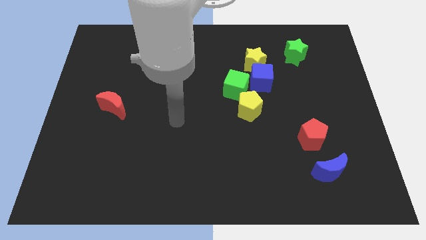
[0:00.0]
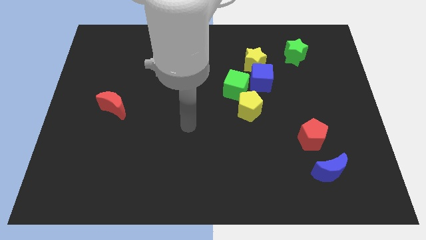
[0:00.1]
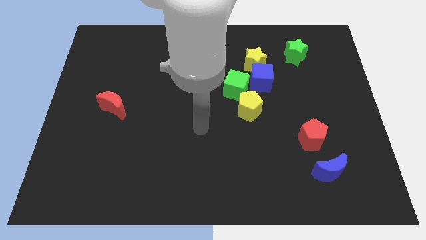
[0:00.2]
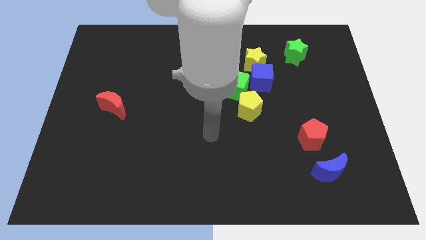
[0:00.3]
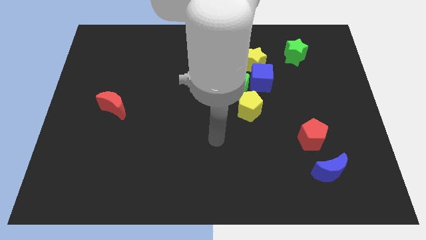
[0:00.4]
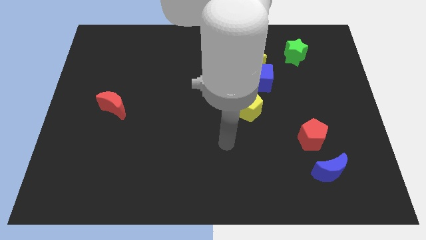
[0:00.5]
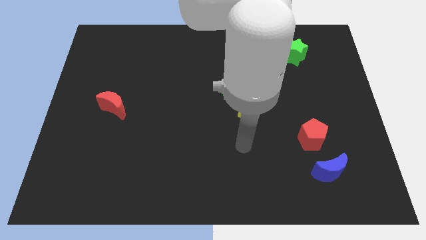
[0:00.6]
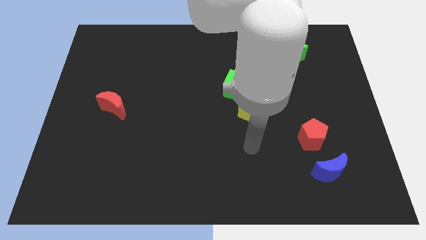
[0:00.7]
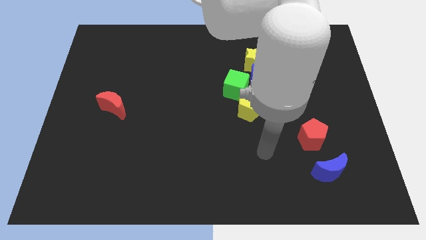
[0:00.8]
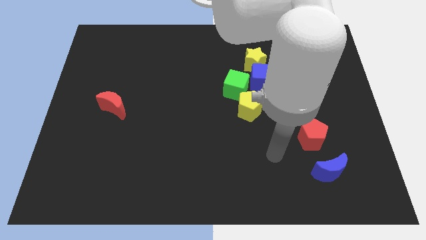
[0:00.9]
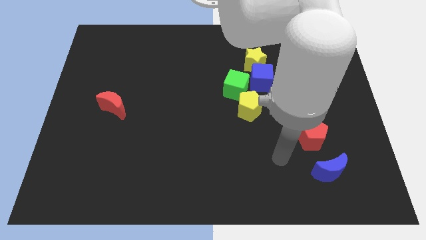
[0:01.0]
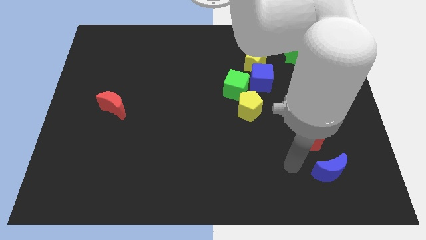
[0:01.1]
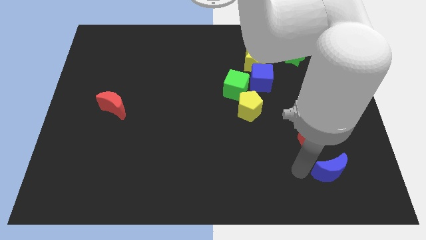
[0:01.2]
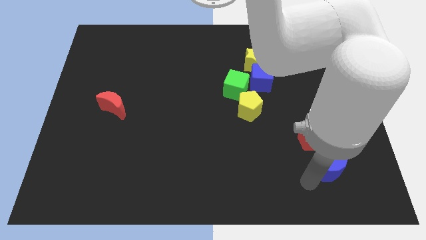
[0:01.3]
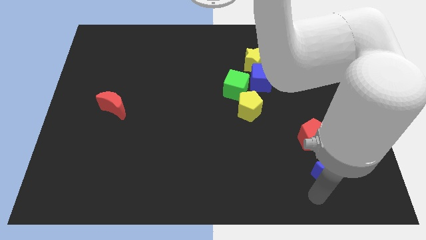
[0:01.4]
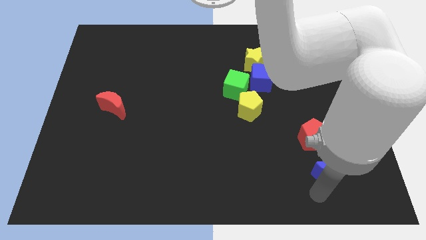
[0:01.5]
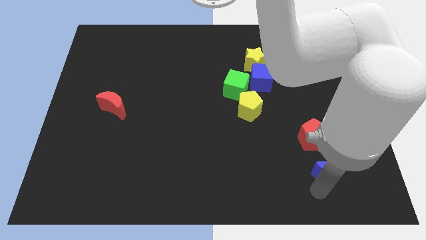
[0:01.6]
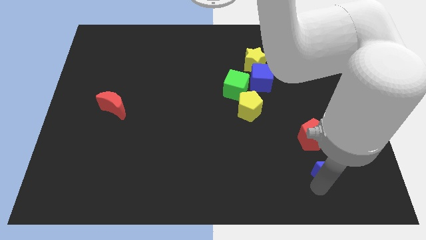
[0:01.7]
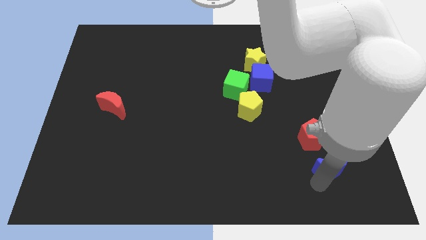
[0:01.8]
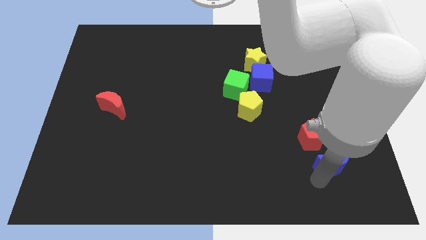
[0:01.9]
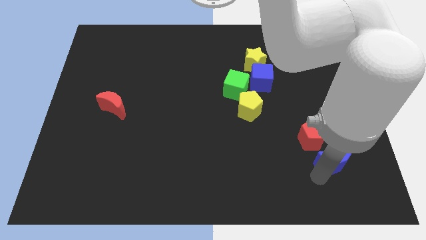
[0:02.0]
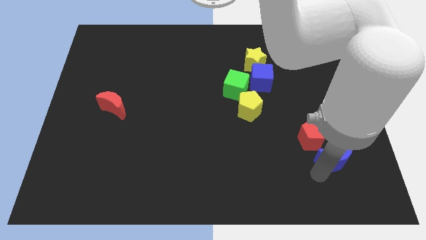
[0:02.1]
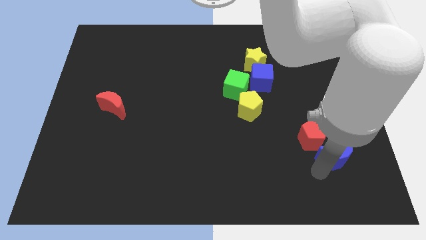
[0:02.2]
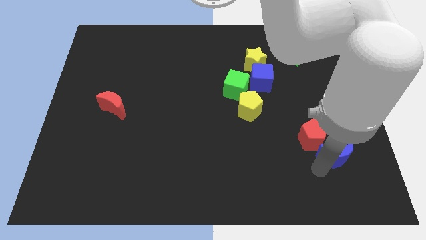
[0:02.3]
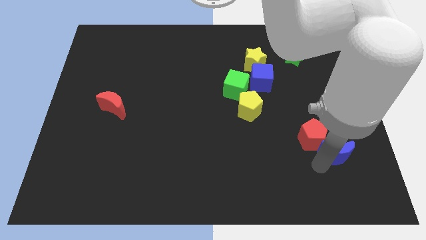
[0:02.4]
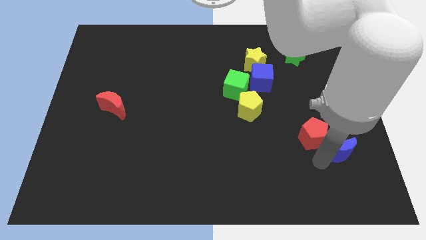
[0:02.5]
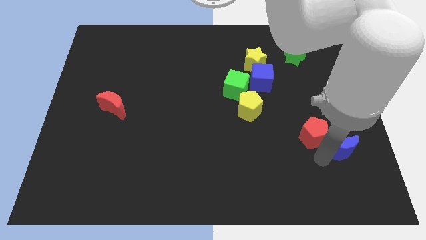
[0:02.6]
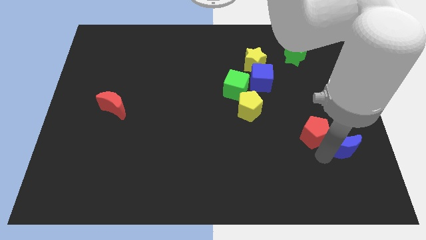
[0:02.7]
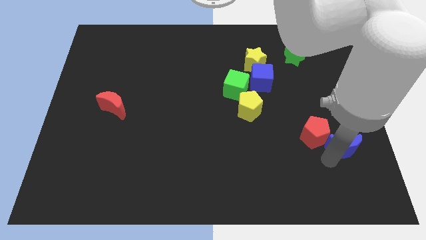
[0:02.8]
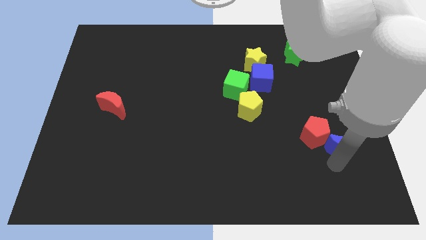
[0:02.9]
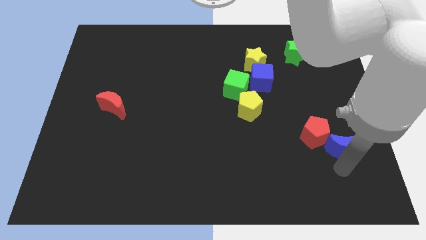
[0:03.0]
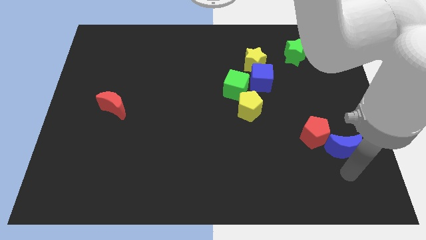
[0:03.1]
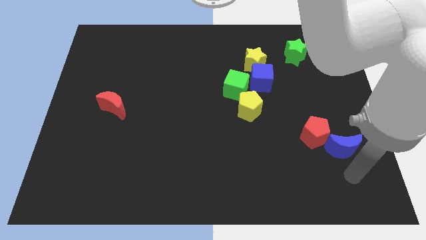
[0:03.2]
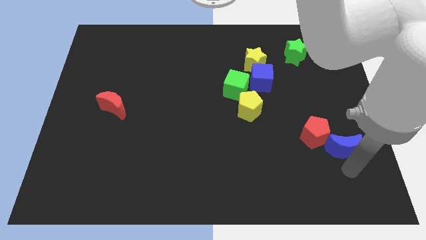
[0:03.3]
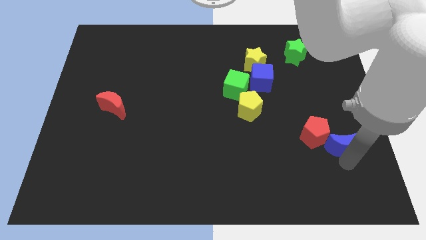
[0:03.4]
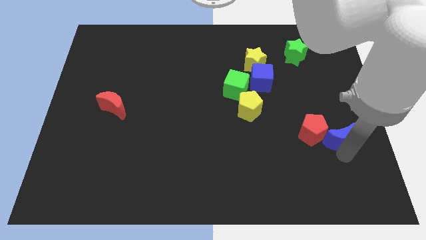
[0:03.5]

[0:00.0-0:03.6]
slightly slide the blue moon upwards

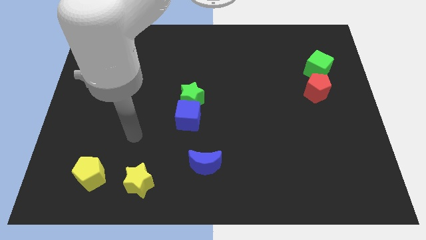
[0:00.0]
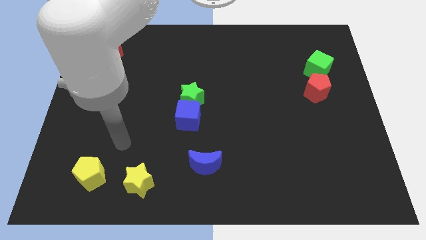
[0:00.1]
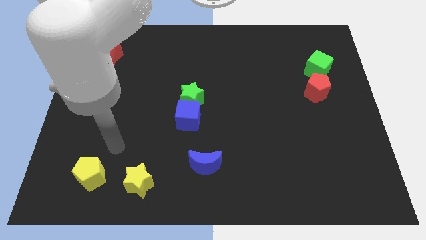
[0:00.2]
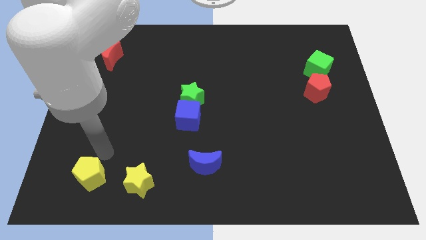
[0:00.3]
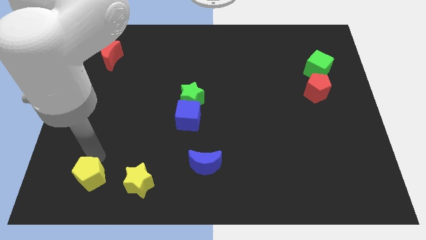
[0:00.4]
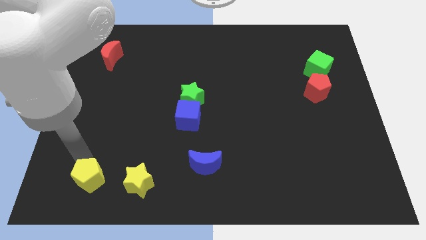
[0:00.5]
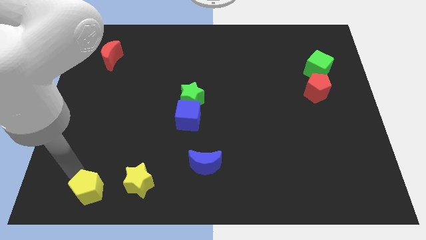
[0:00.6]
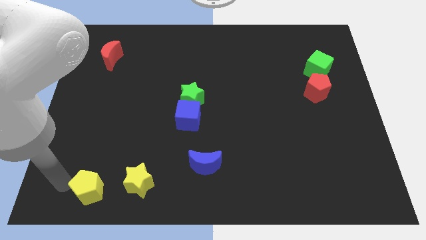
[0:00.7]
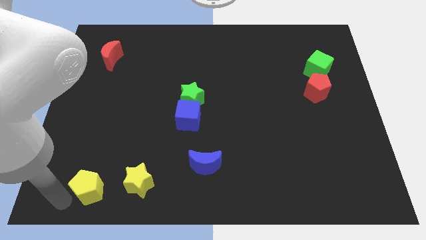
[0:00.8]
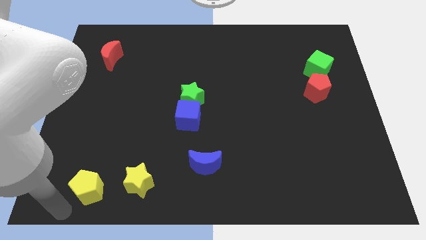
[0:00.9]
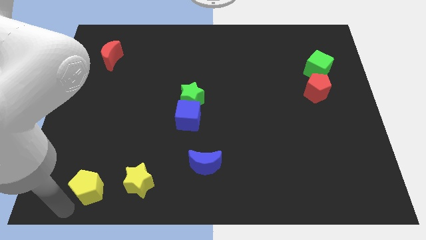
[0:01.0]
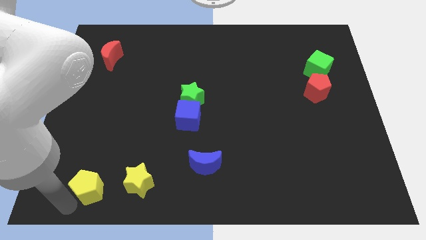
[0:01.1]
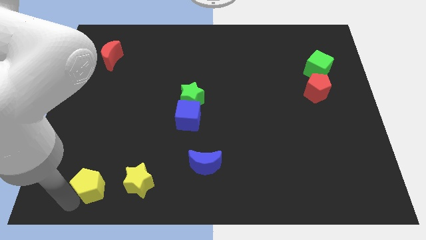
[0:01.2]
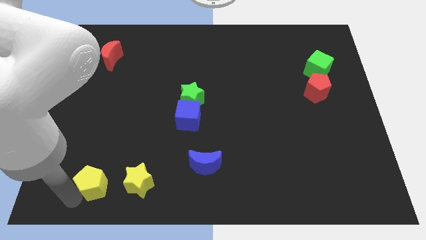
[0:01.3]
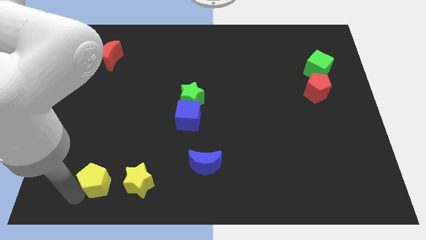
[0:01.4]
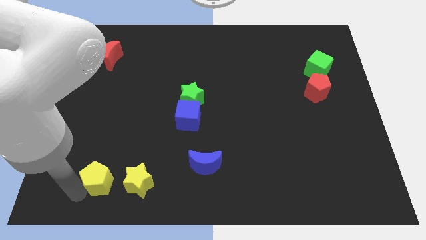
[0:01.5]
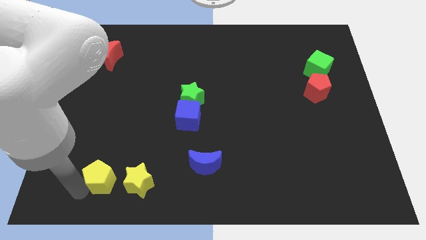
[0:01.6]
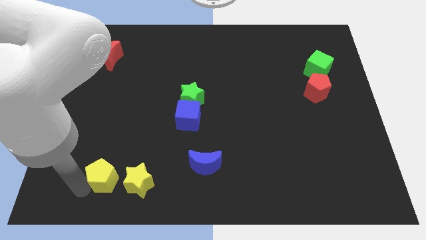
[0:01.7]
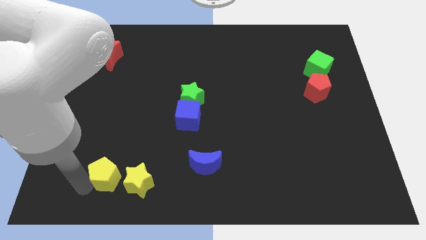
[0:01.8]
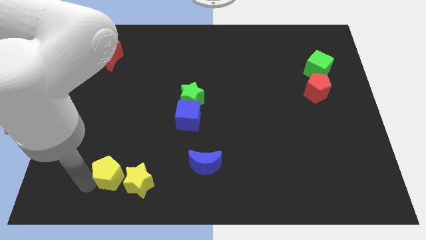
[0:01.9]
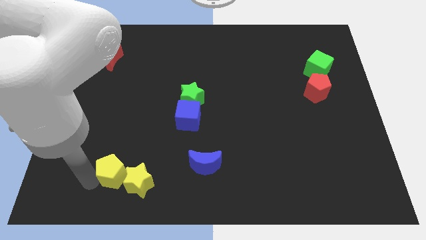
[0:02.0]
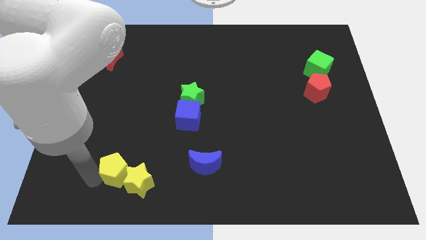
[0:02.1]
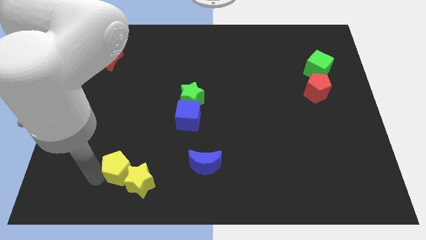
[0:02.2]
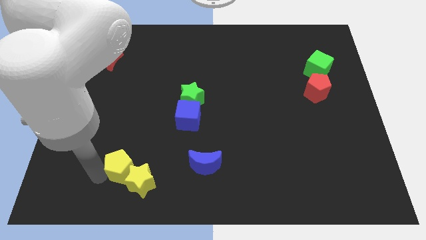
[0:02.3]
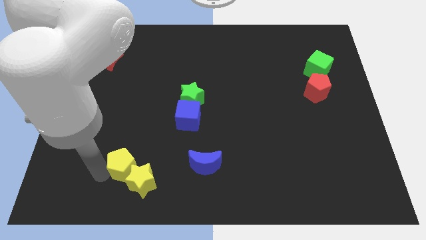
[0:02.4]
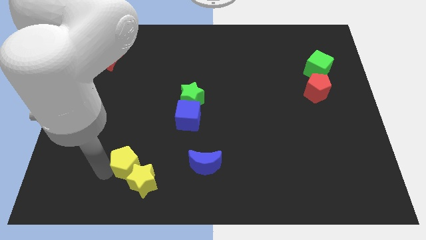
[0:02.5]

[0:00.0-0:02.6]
push the yellow pentagon a little bit to the right

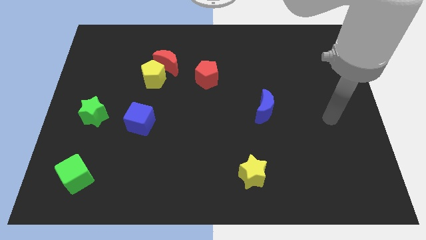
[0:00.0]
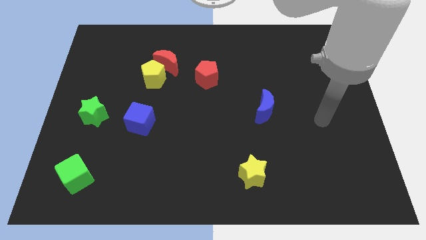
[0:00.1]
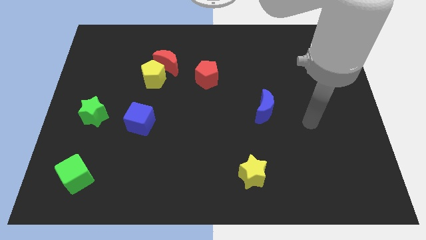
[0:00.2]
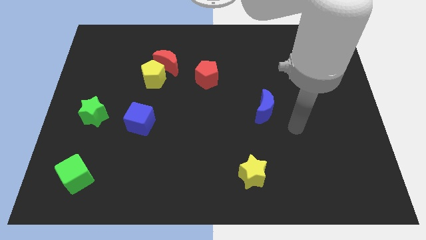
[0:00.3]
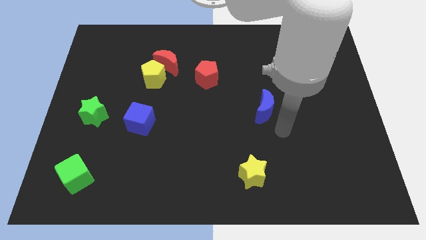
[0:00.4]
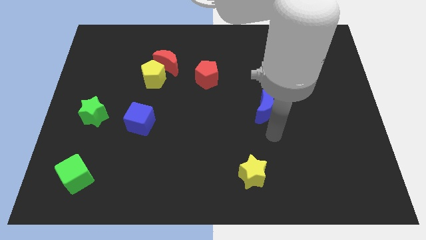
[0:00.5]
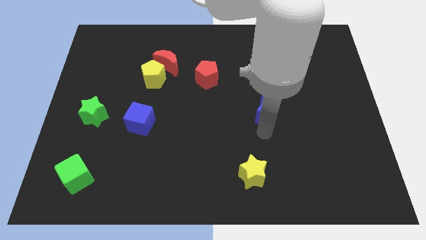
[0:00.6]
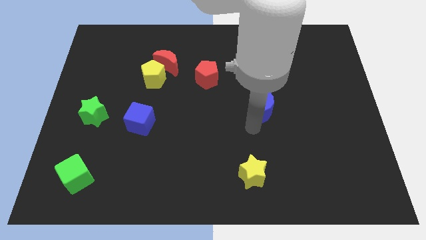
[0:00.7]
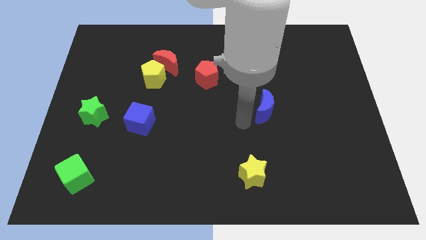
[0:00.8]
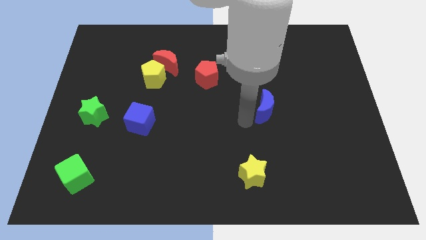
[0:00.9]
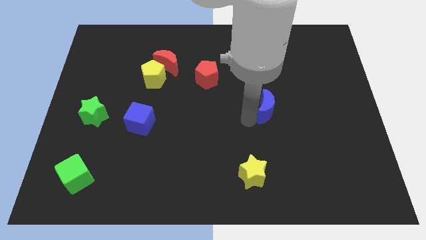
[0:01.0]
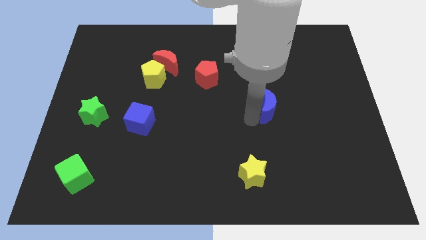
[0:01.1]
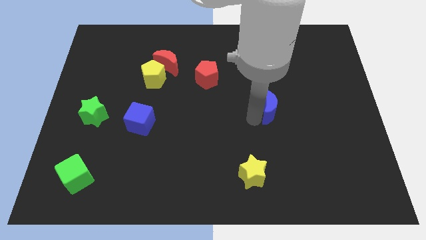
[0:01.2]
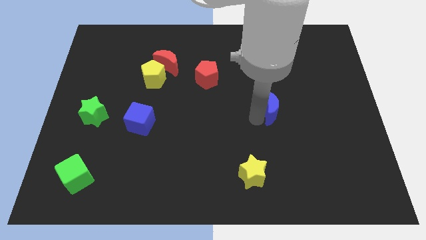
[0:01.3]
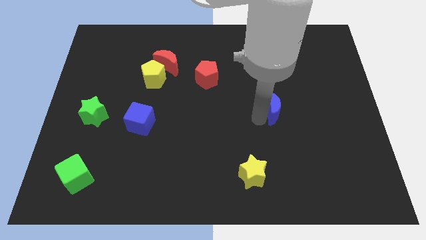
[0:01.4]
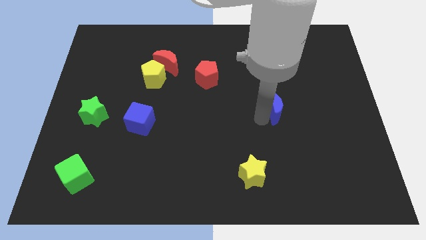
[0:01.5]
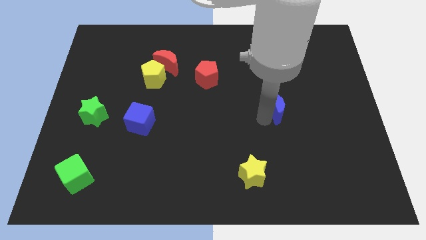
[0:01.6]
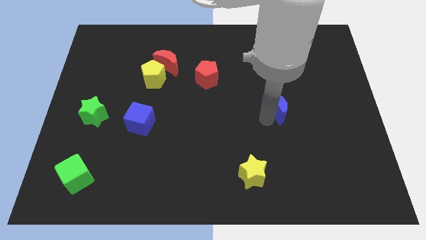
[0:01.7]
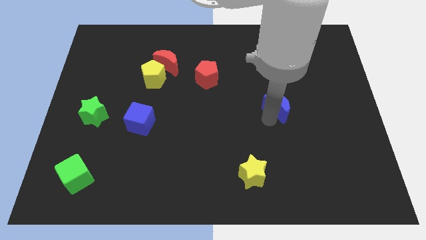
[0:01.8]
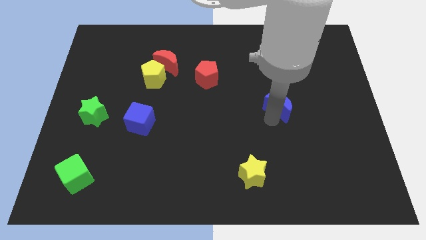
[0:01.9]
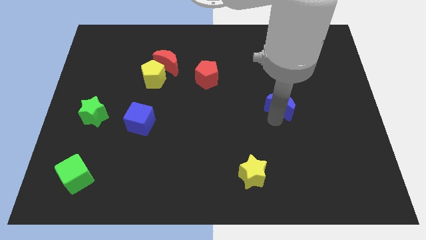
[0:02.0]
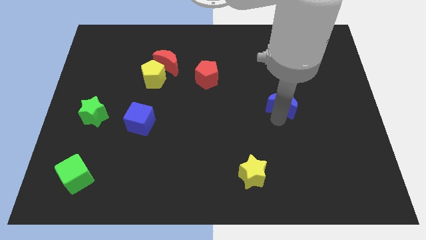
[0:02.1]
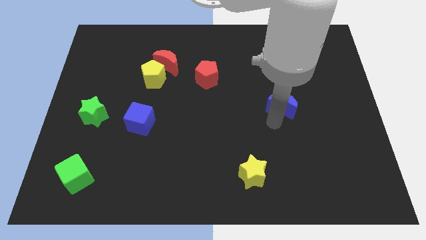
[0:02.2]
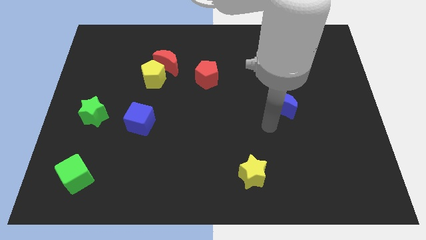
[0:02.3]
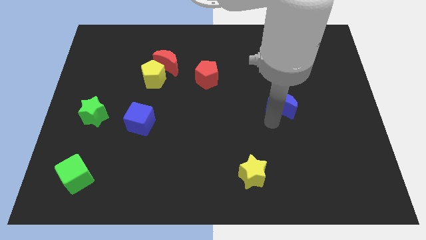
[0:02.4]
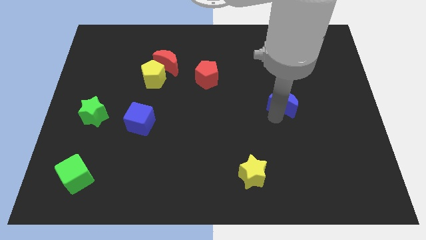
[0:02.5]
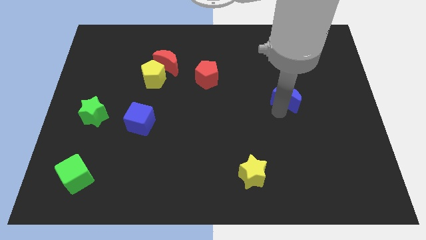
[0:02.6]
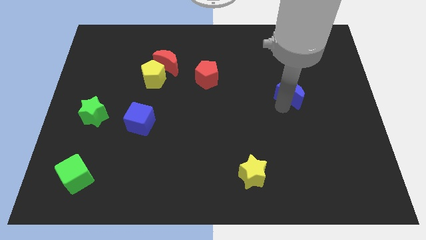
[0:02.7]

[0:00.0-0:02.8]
slightly move the blue moon up and right
